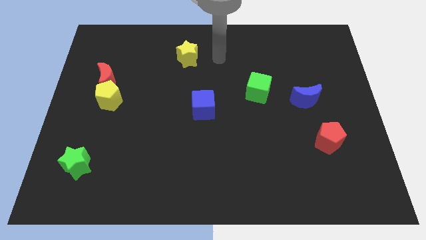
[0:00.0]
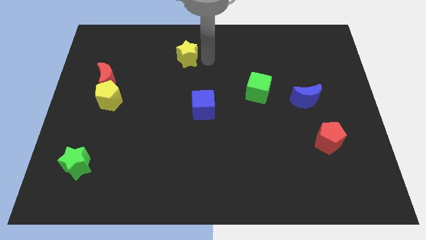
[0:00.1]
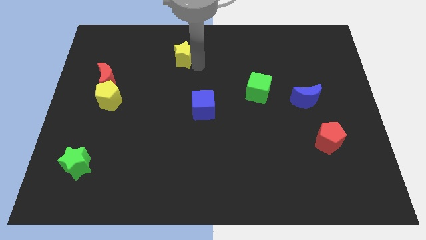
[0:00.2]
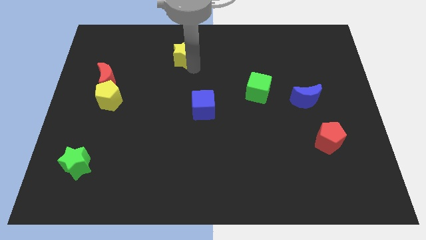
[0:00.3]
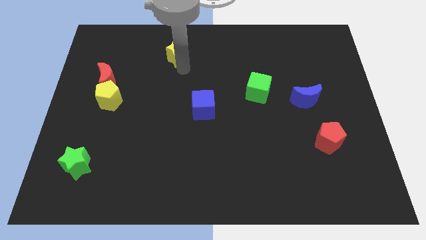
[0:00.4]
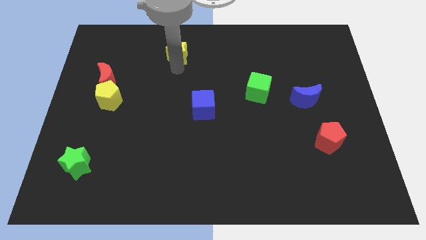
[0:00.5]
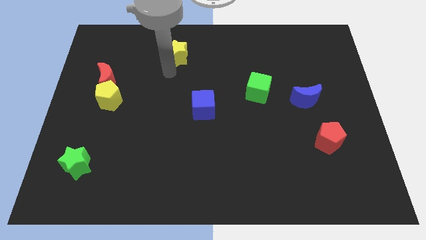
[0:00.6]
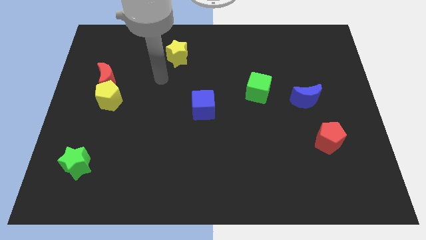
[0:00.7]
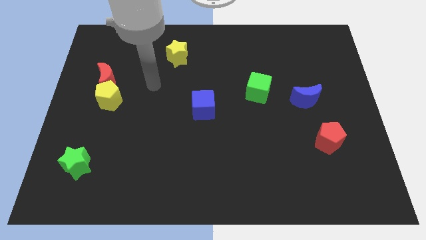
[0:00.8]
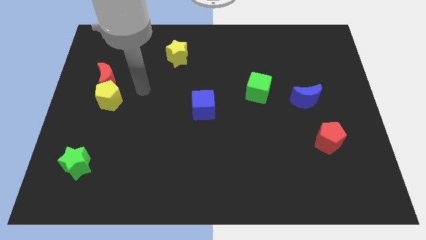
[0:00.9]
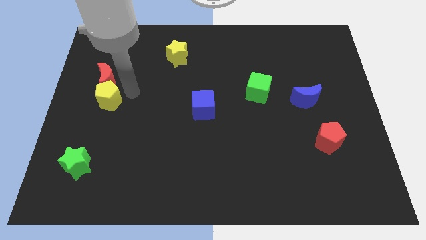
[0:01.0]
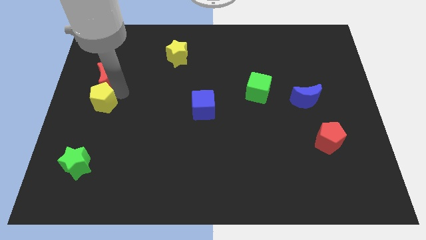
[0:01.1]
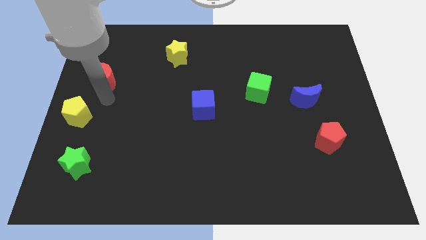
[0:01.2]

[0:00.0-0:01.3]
pull the red moon apart from the yellow pentagon

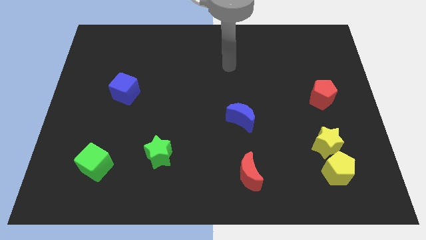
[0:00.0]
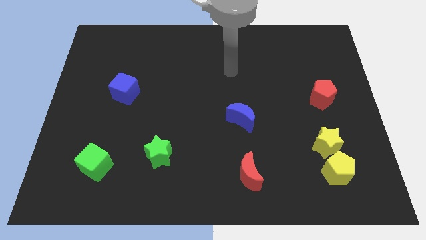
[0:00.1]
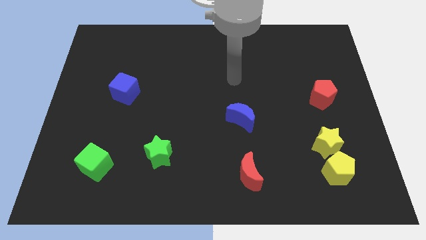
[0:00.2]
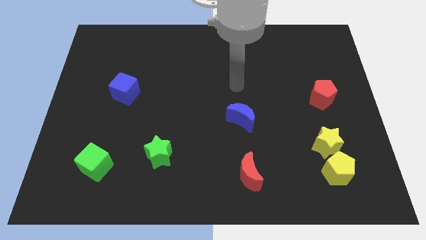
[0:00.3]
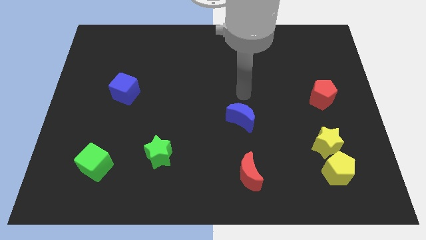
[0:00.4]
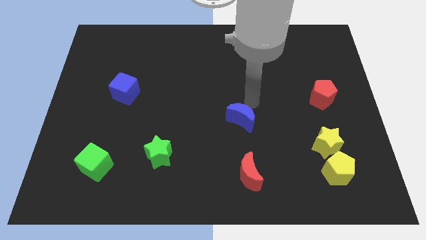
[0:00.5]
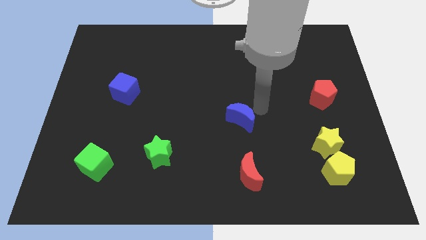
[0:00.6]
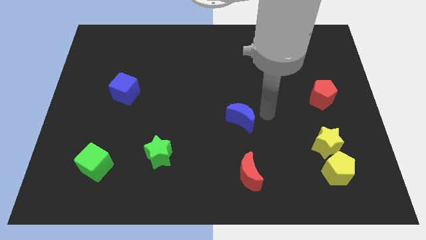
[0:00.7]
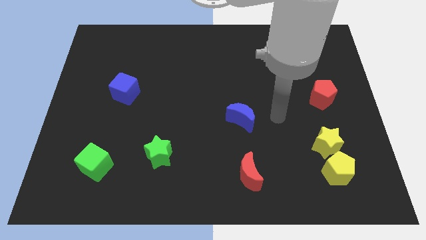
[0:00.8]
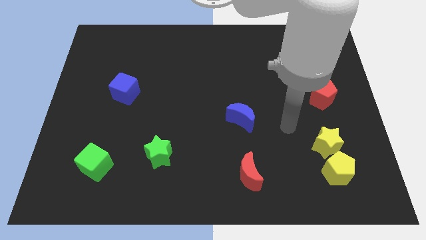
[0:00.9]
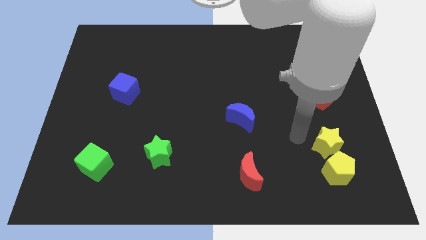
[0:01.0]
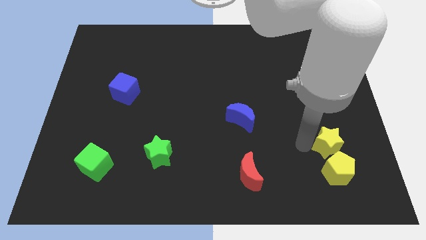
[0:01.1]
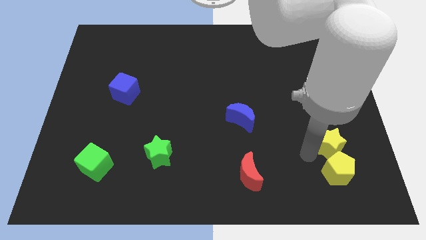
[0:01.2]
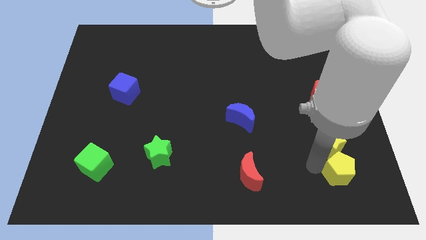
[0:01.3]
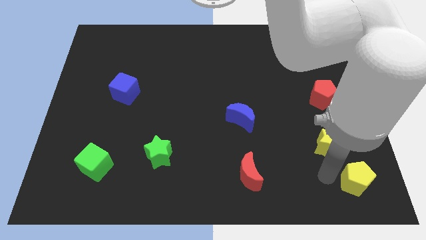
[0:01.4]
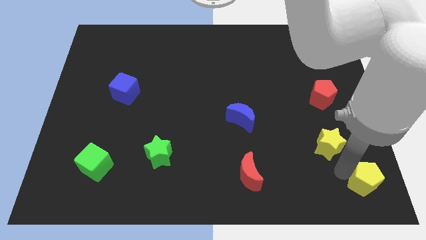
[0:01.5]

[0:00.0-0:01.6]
move the yellow star away from the yellow pentagon

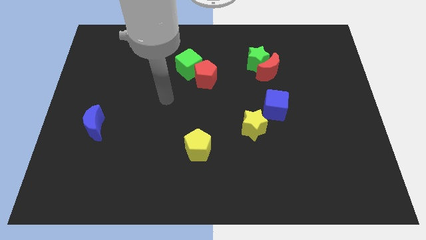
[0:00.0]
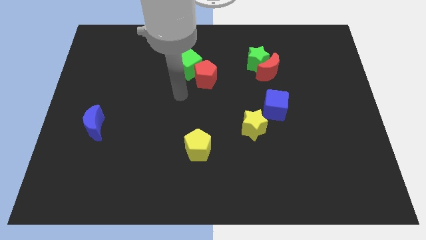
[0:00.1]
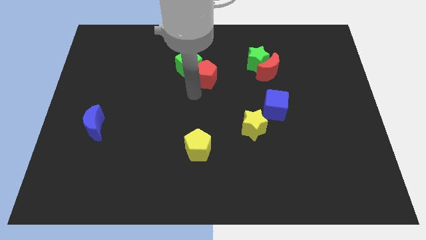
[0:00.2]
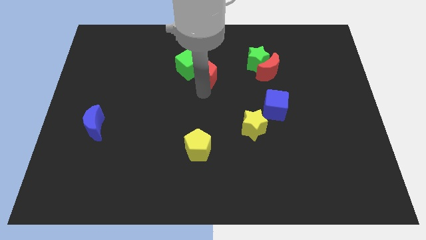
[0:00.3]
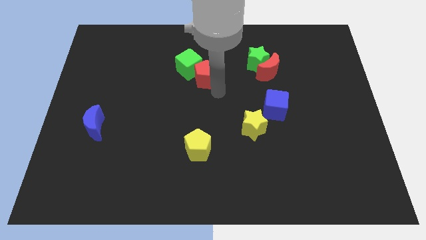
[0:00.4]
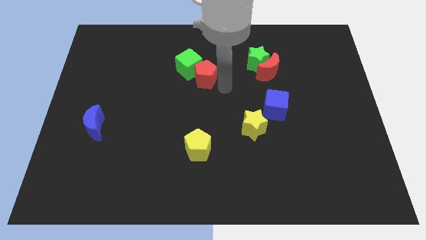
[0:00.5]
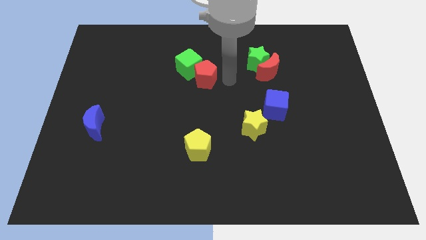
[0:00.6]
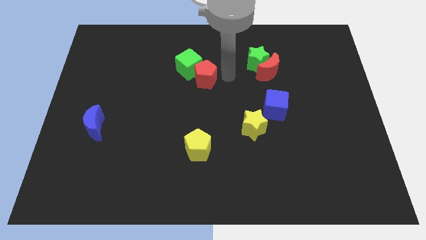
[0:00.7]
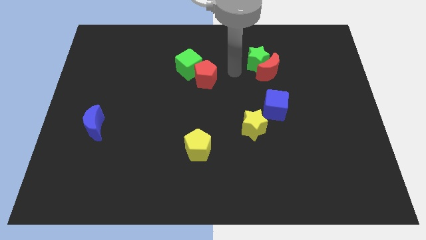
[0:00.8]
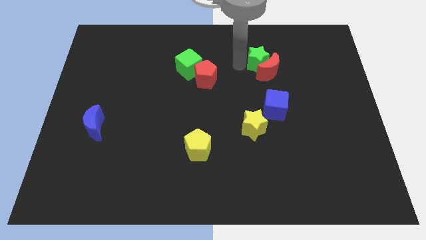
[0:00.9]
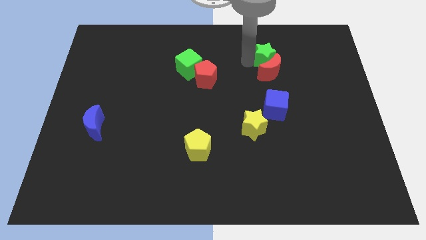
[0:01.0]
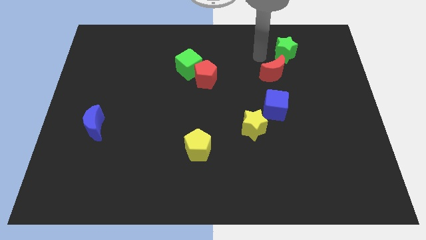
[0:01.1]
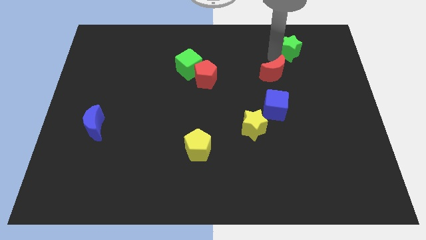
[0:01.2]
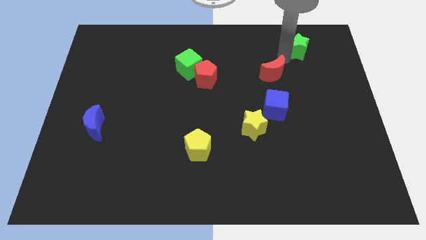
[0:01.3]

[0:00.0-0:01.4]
separate the red moon from the green star

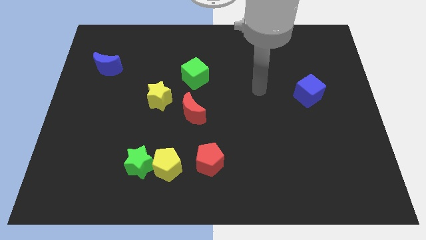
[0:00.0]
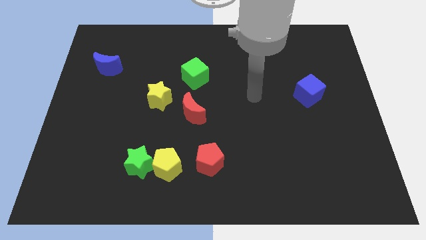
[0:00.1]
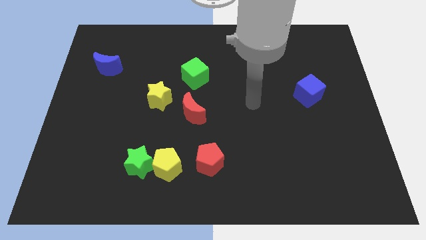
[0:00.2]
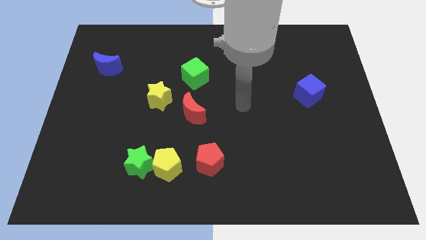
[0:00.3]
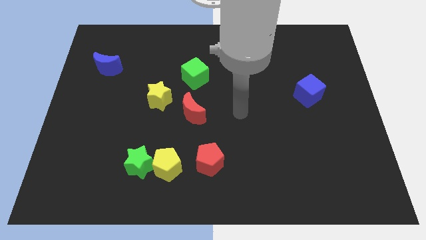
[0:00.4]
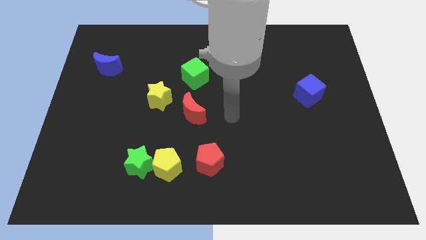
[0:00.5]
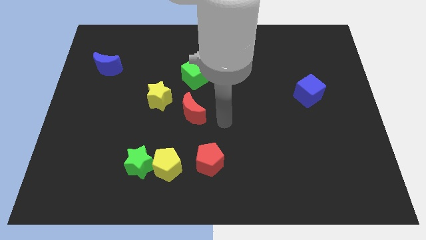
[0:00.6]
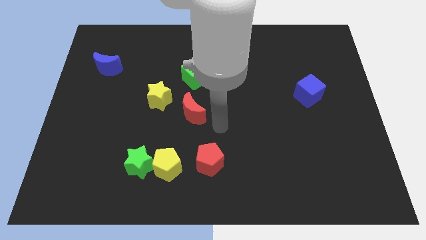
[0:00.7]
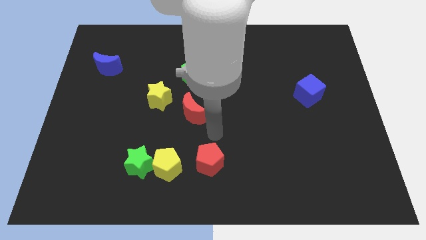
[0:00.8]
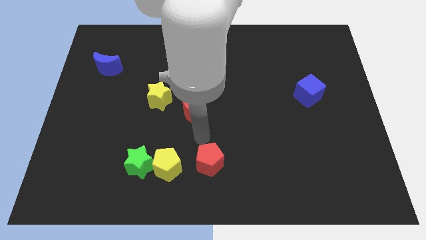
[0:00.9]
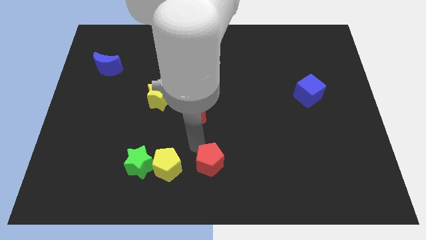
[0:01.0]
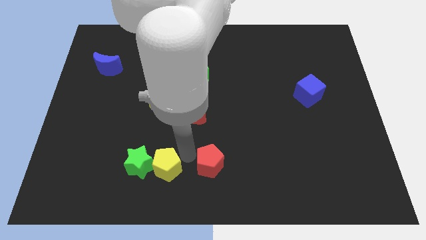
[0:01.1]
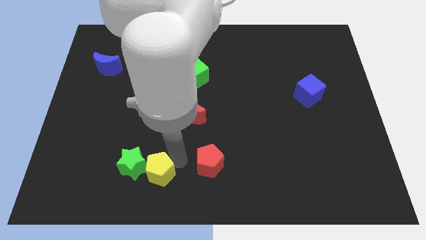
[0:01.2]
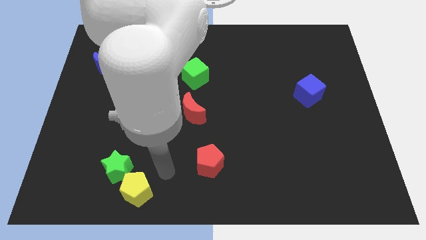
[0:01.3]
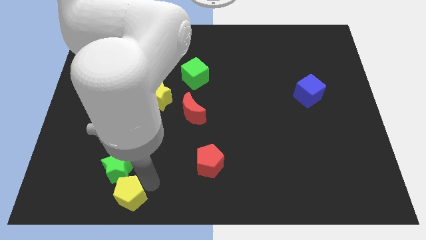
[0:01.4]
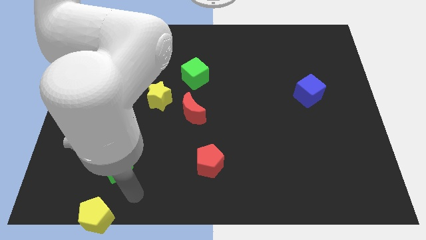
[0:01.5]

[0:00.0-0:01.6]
pull the green star apart from the yellow pentagon

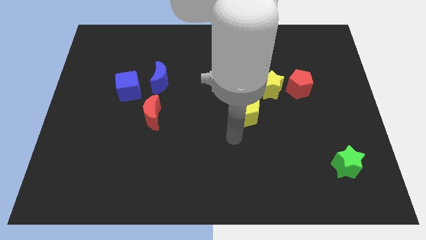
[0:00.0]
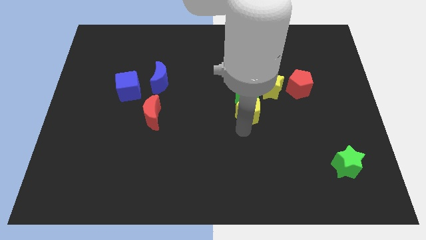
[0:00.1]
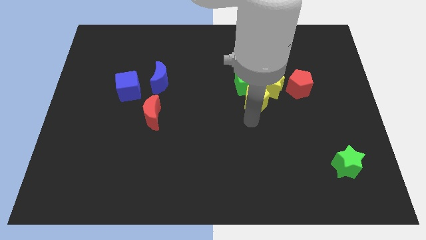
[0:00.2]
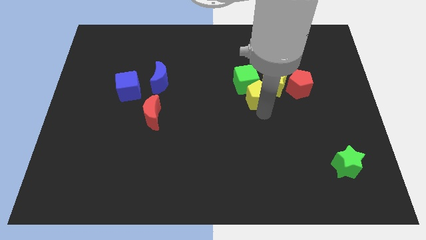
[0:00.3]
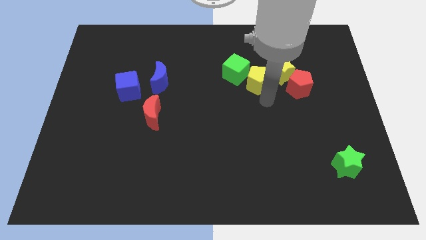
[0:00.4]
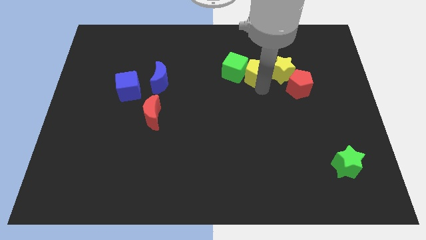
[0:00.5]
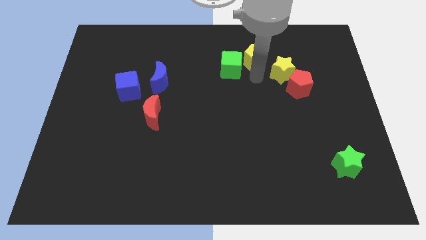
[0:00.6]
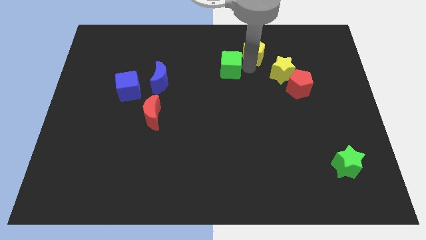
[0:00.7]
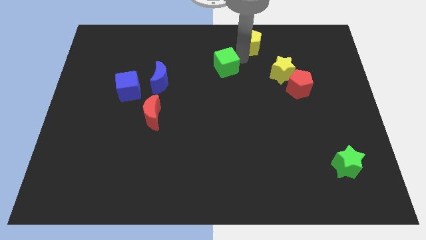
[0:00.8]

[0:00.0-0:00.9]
pull the green cube apart from the yellow pentagon and yellow star

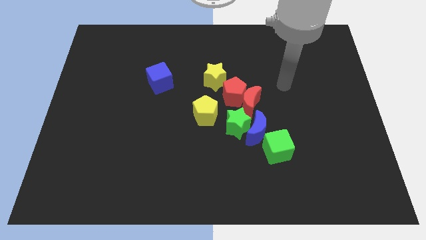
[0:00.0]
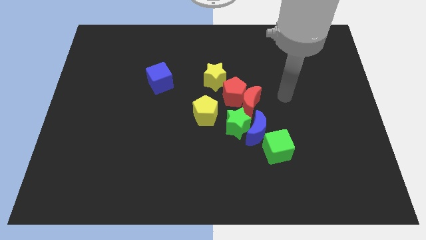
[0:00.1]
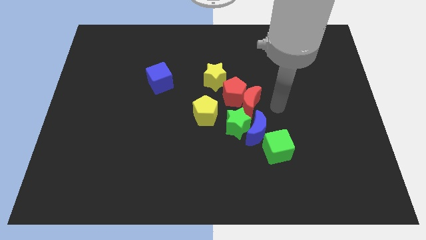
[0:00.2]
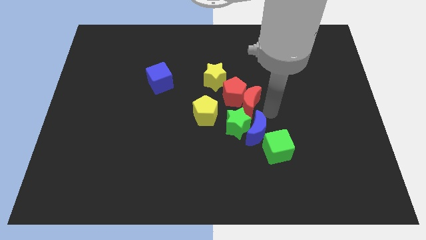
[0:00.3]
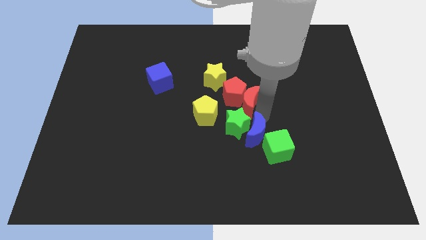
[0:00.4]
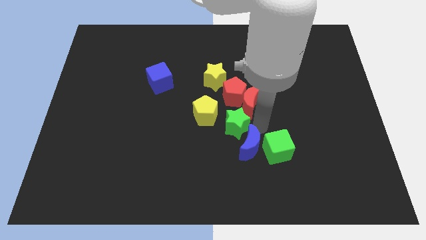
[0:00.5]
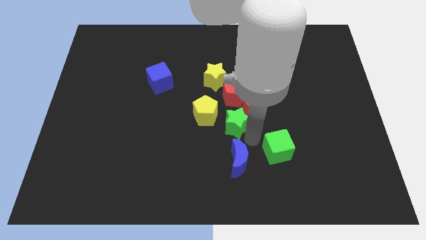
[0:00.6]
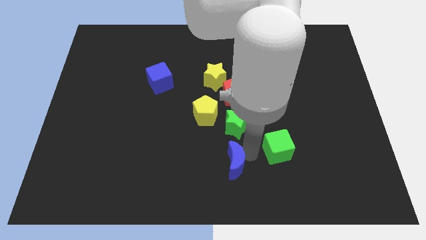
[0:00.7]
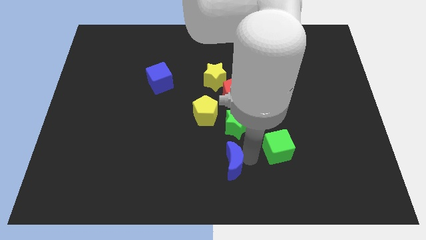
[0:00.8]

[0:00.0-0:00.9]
pull the green cube apart from the blue moon

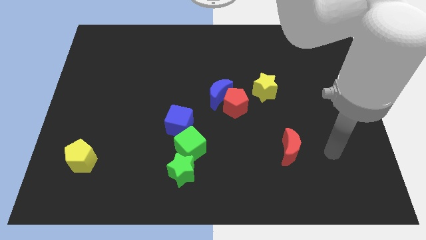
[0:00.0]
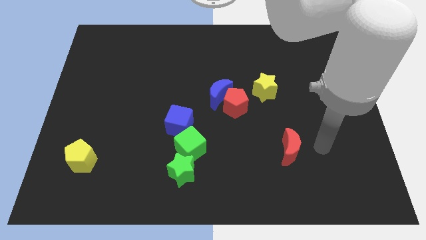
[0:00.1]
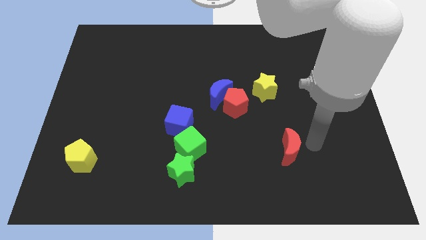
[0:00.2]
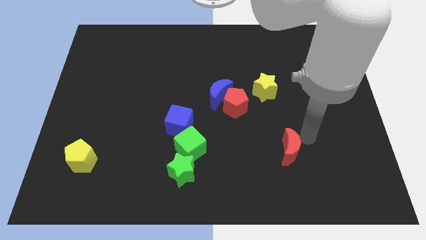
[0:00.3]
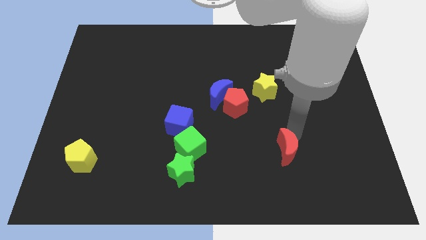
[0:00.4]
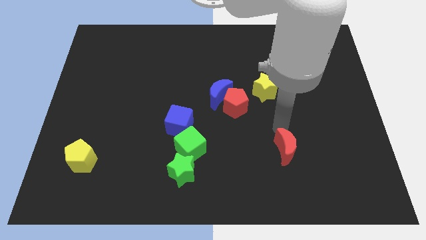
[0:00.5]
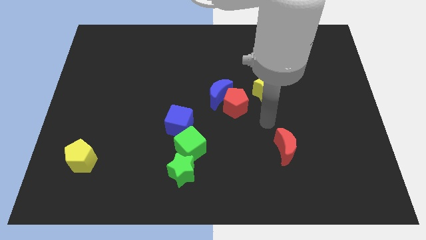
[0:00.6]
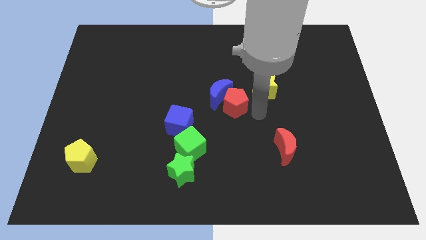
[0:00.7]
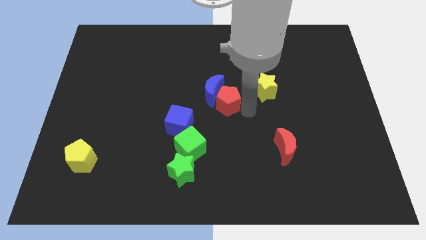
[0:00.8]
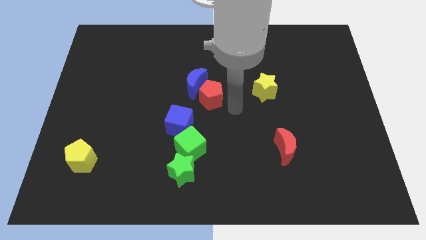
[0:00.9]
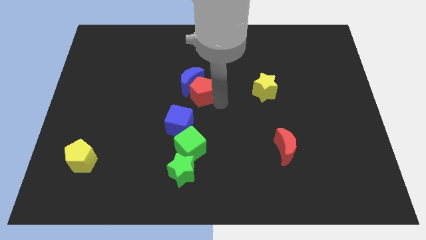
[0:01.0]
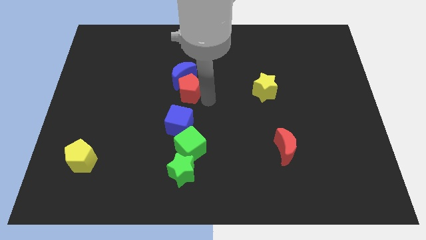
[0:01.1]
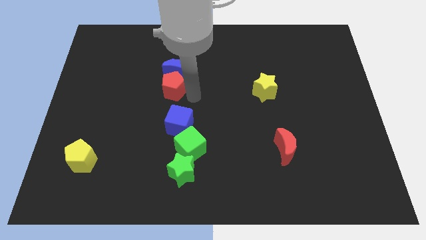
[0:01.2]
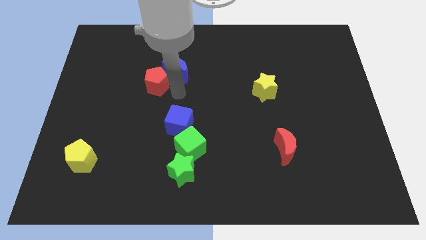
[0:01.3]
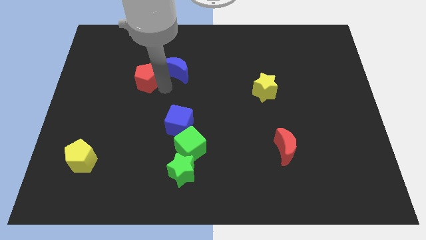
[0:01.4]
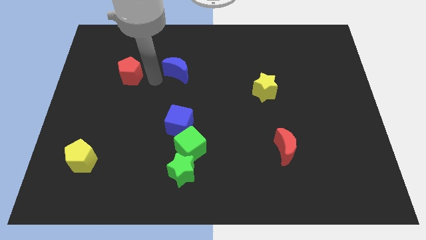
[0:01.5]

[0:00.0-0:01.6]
move the blue moon away from the red pentagon
